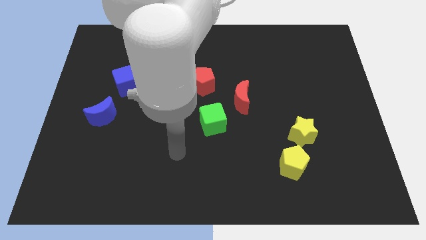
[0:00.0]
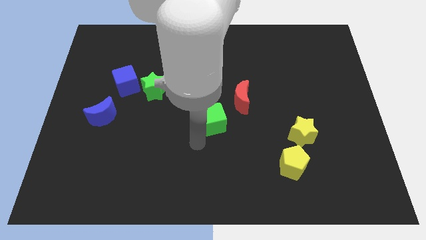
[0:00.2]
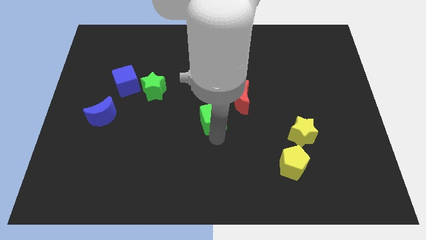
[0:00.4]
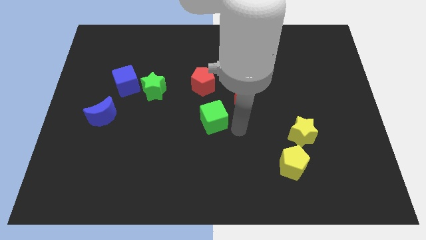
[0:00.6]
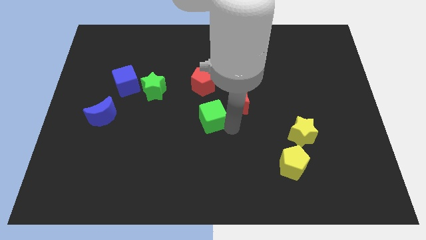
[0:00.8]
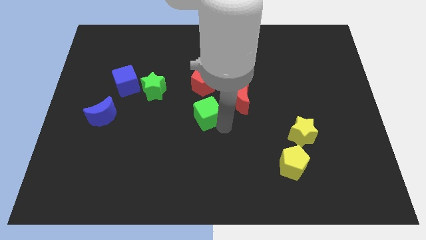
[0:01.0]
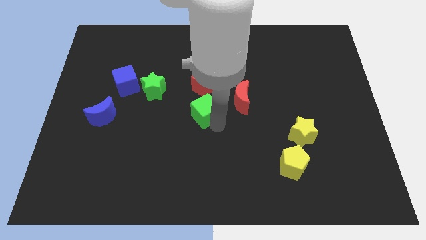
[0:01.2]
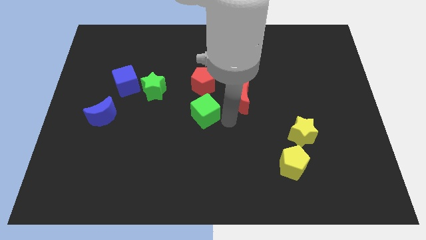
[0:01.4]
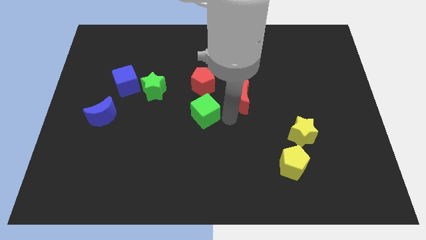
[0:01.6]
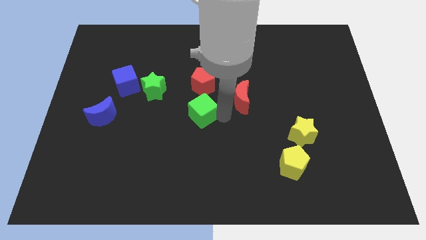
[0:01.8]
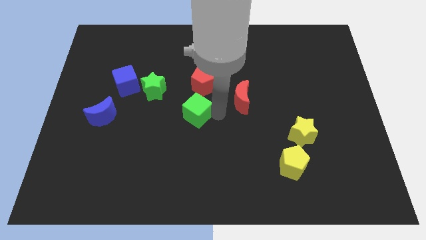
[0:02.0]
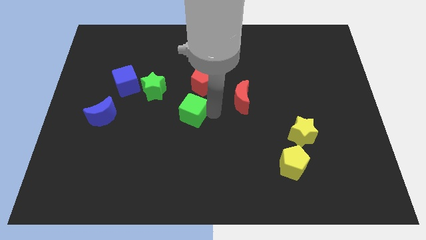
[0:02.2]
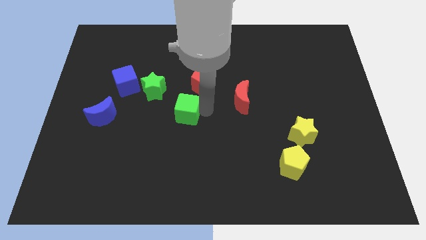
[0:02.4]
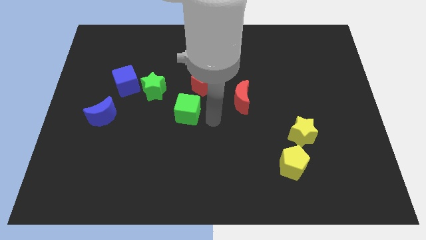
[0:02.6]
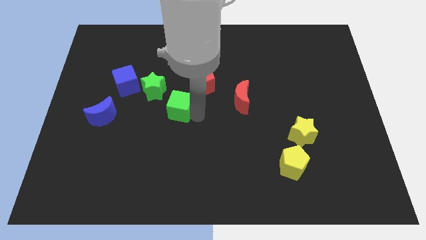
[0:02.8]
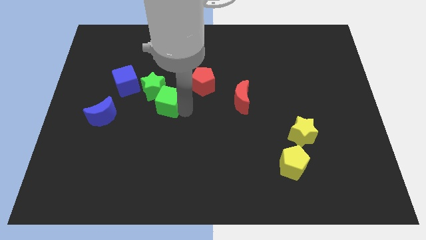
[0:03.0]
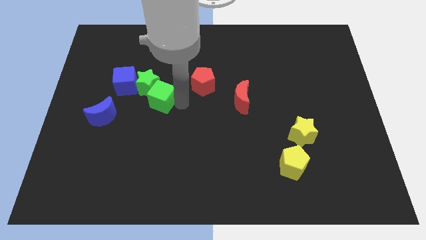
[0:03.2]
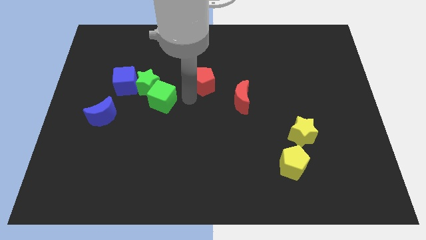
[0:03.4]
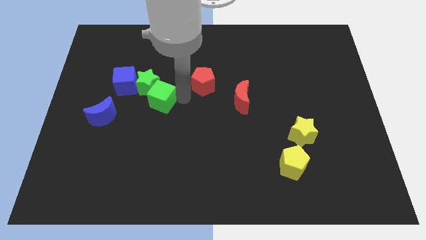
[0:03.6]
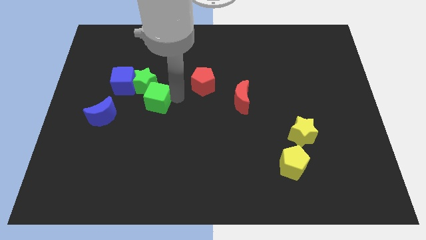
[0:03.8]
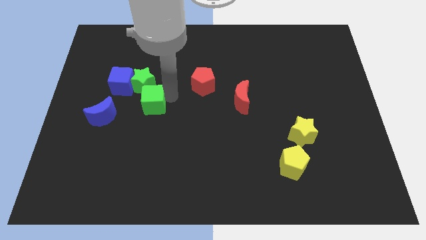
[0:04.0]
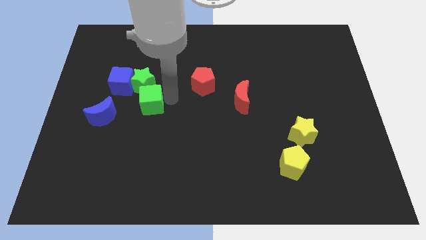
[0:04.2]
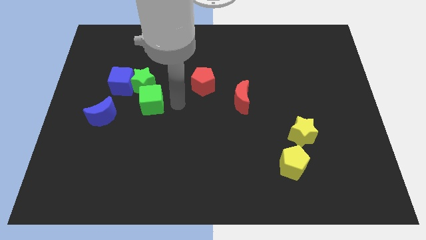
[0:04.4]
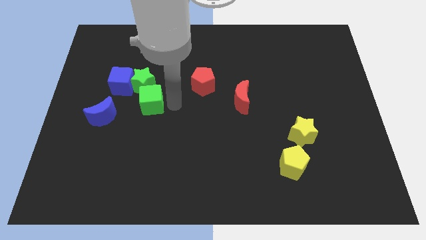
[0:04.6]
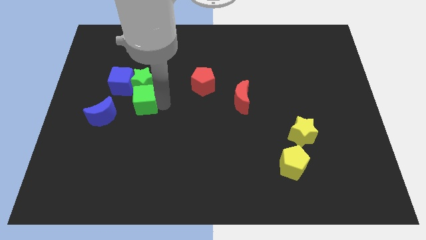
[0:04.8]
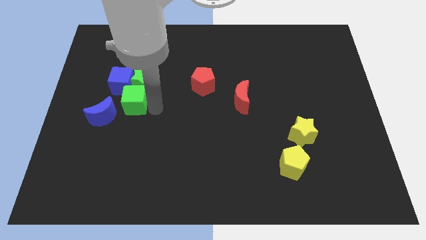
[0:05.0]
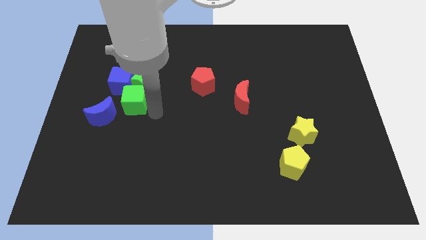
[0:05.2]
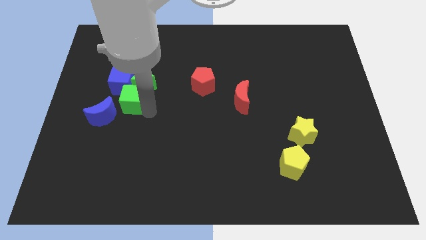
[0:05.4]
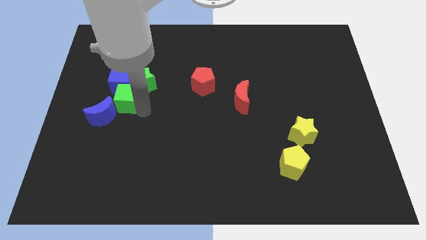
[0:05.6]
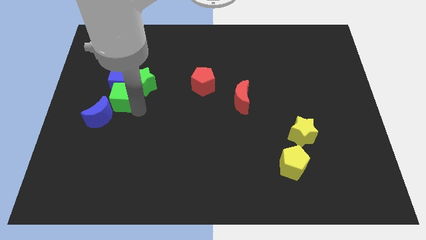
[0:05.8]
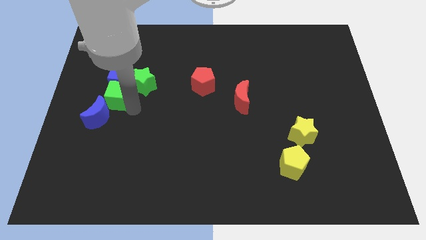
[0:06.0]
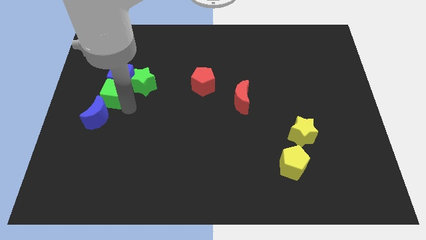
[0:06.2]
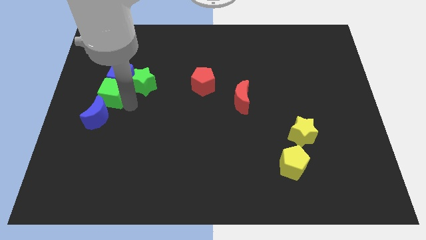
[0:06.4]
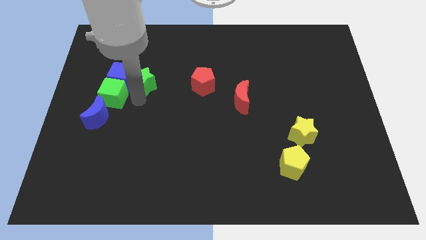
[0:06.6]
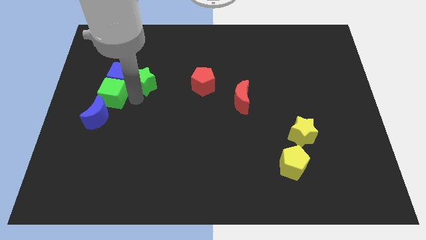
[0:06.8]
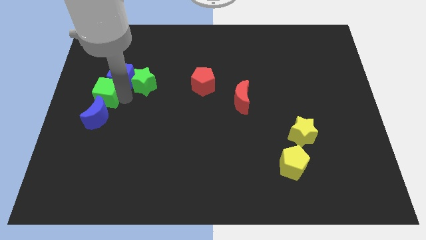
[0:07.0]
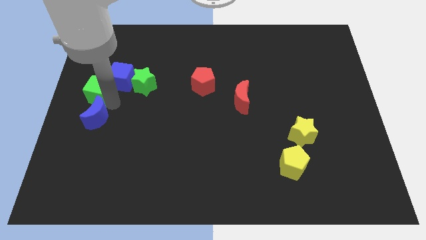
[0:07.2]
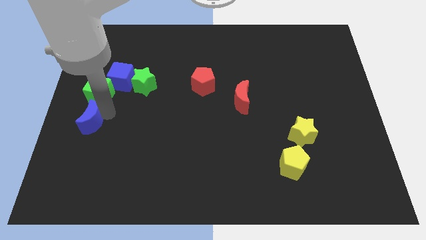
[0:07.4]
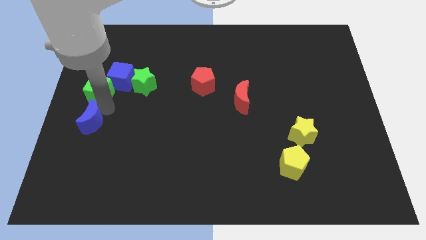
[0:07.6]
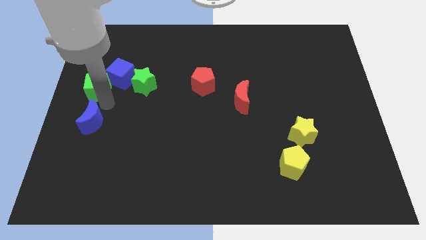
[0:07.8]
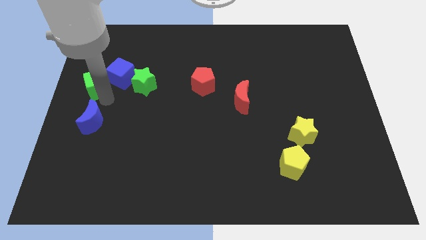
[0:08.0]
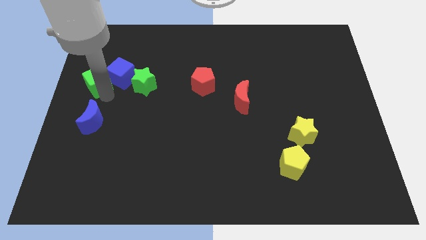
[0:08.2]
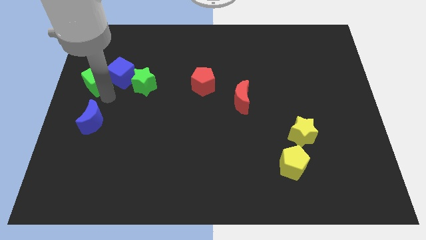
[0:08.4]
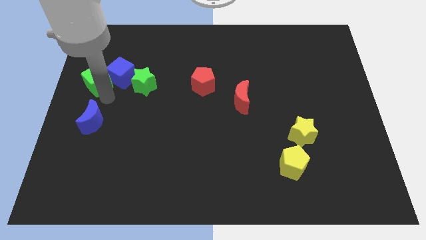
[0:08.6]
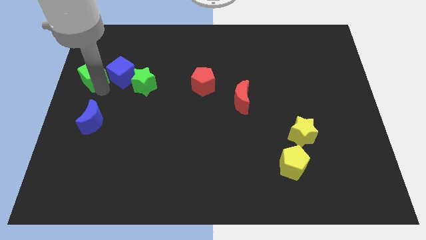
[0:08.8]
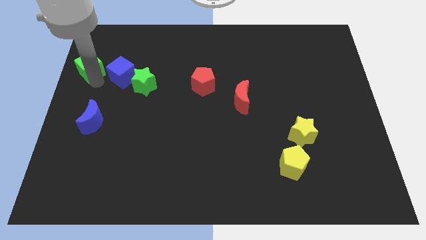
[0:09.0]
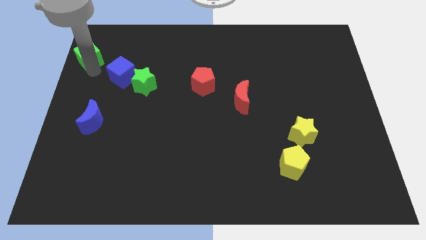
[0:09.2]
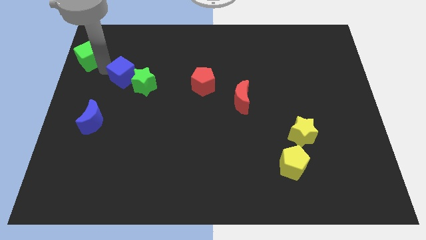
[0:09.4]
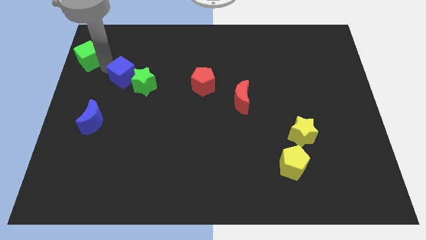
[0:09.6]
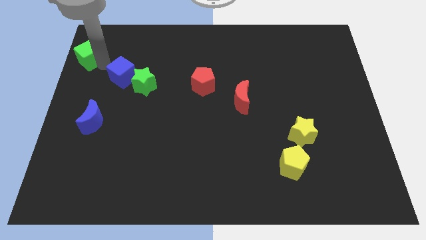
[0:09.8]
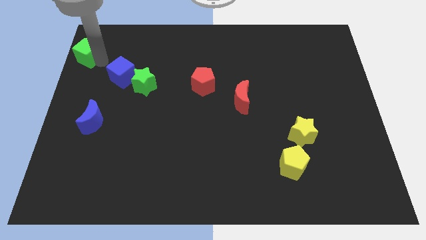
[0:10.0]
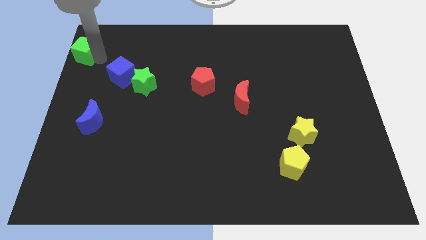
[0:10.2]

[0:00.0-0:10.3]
push the green cube to the upper left corner

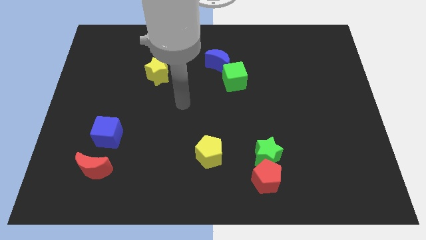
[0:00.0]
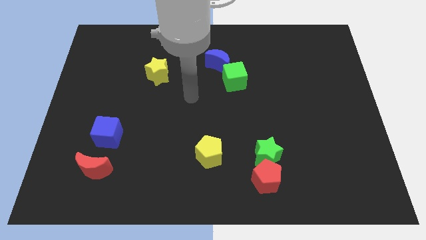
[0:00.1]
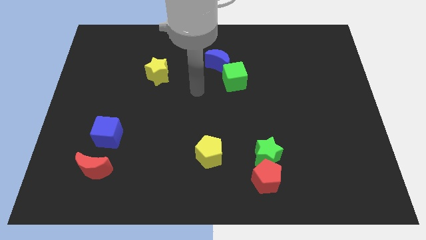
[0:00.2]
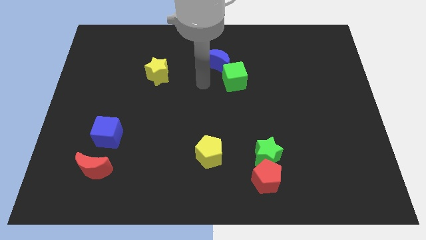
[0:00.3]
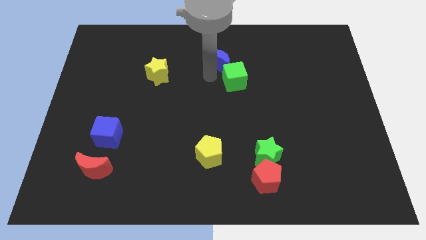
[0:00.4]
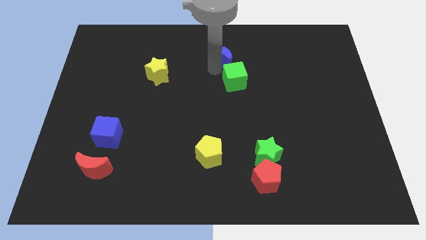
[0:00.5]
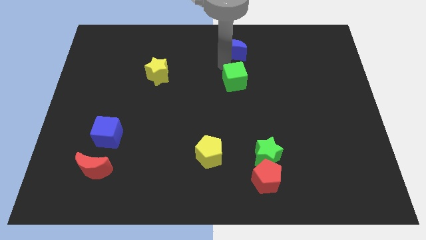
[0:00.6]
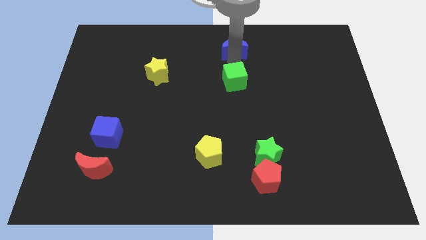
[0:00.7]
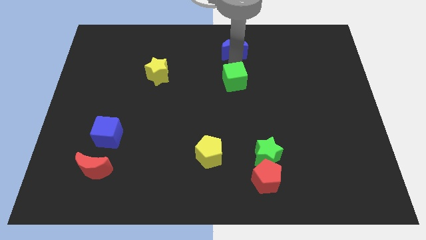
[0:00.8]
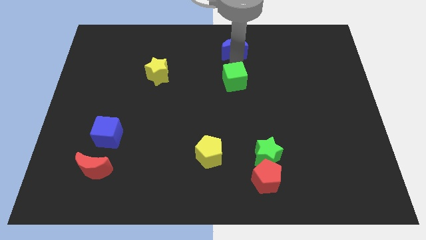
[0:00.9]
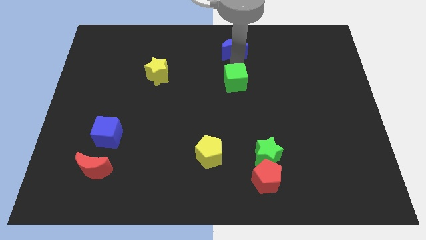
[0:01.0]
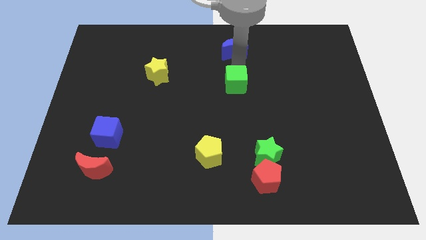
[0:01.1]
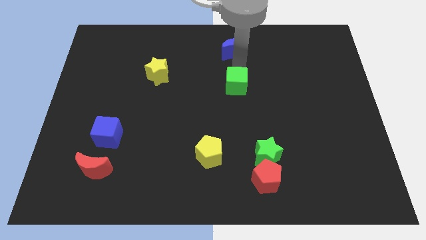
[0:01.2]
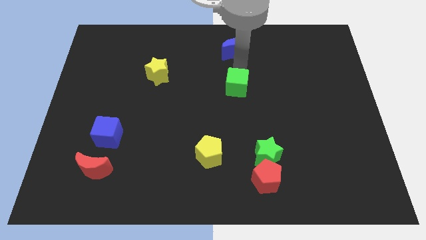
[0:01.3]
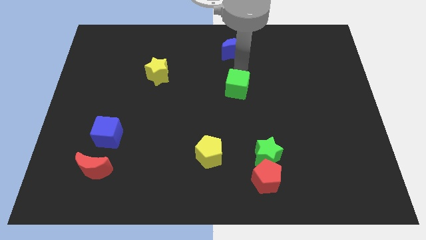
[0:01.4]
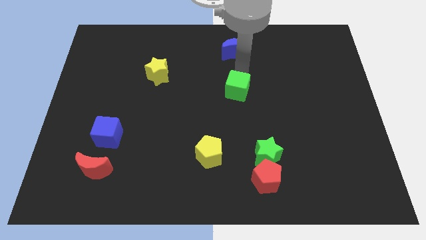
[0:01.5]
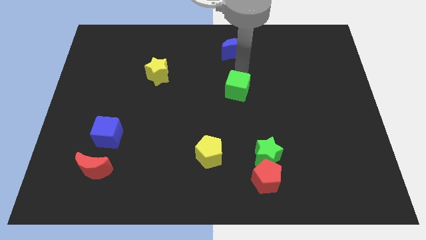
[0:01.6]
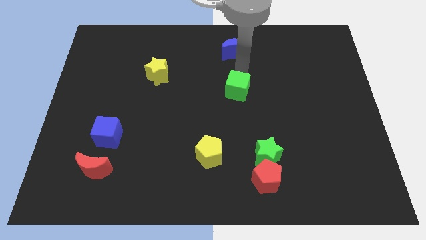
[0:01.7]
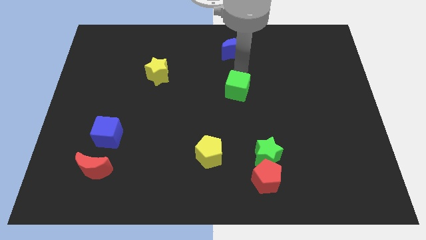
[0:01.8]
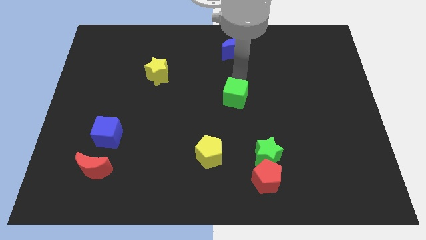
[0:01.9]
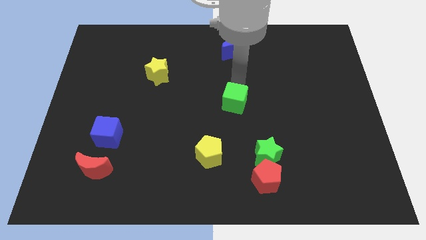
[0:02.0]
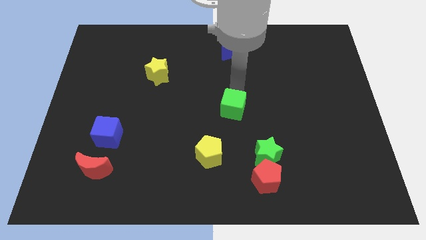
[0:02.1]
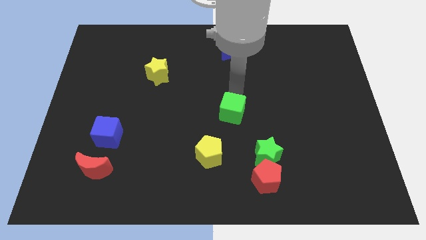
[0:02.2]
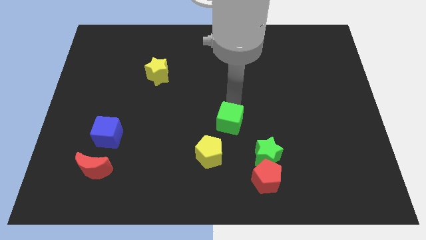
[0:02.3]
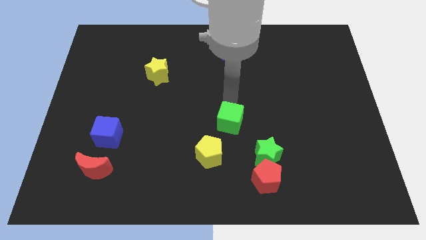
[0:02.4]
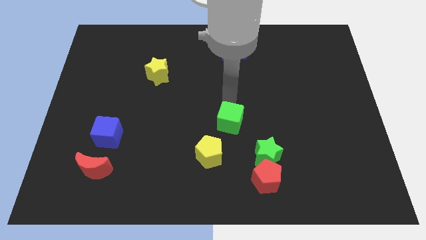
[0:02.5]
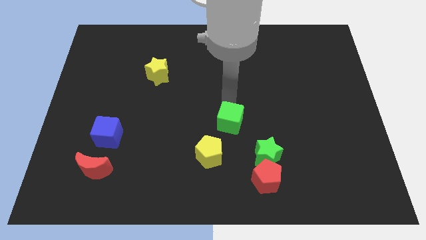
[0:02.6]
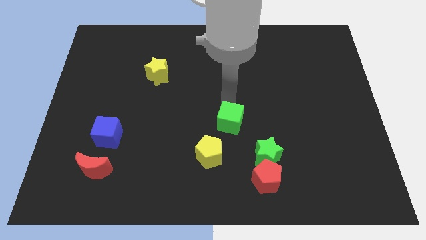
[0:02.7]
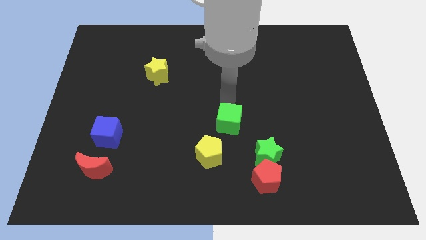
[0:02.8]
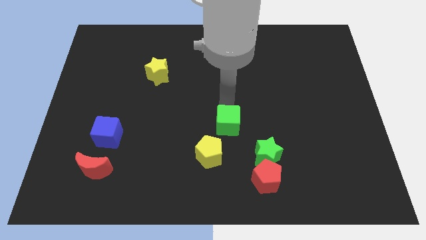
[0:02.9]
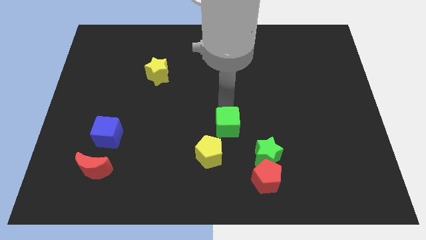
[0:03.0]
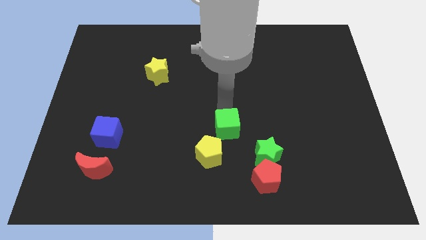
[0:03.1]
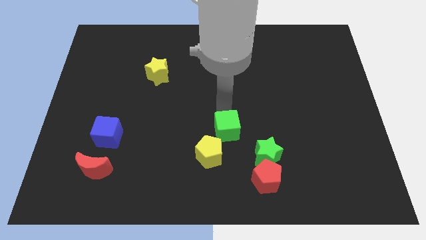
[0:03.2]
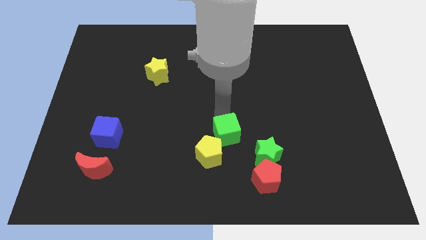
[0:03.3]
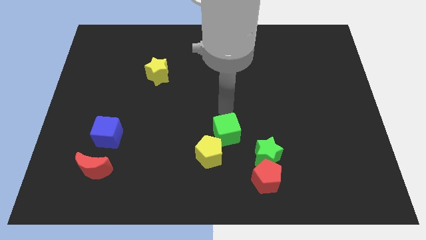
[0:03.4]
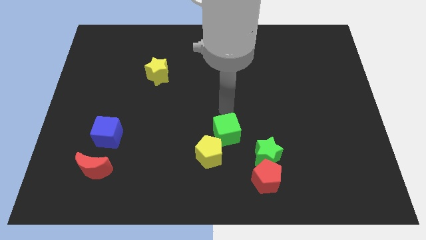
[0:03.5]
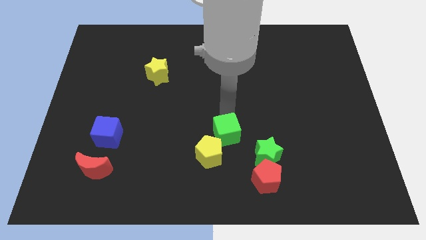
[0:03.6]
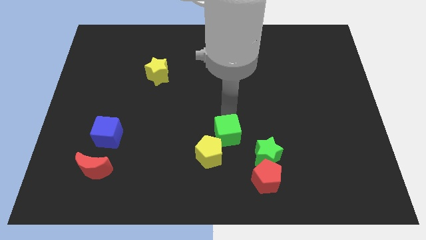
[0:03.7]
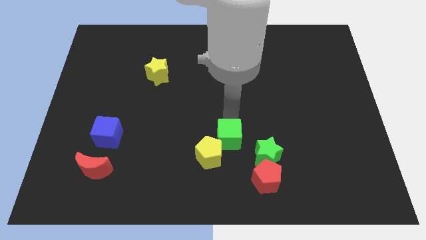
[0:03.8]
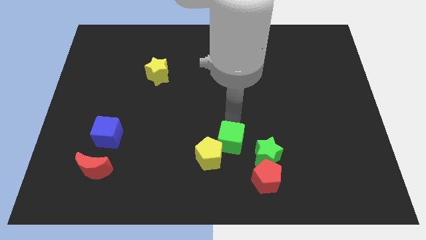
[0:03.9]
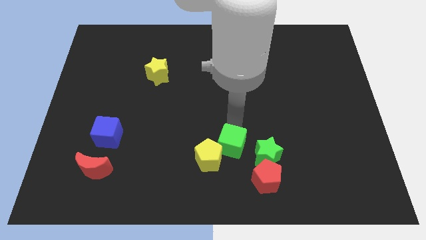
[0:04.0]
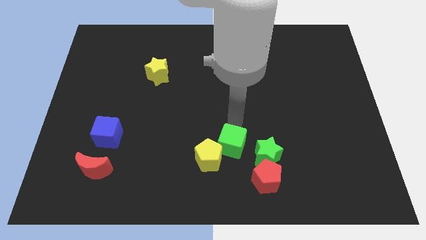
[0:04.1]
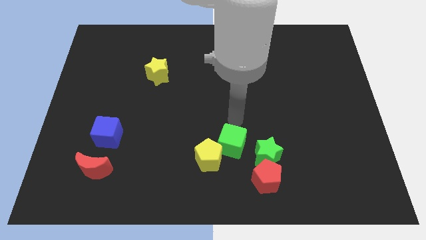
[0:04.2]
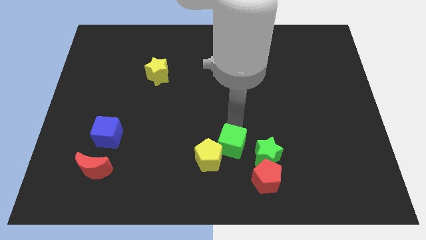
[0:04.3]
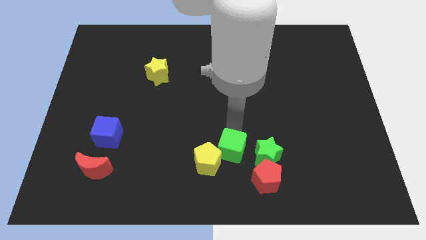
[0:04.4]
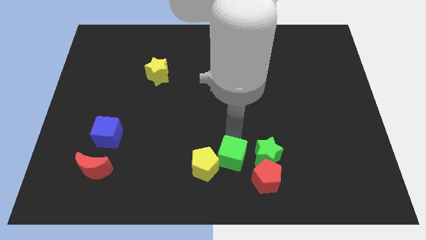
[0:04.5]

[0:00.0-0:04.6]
push the green cube to the bottom
